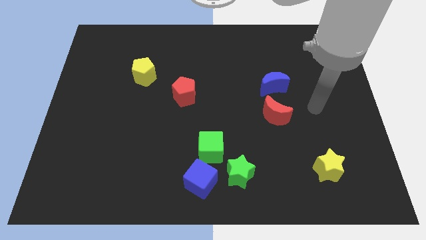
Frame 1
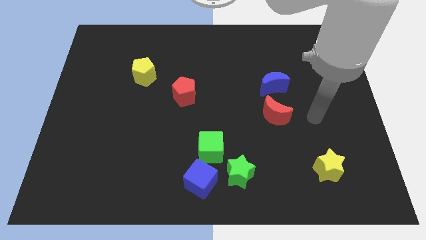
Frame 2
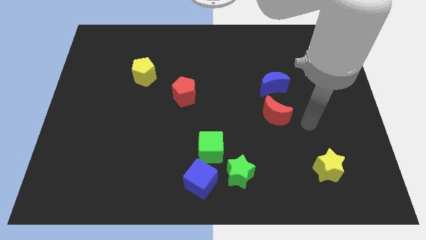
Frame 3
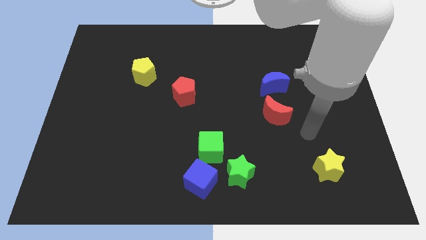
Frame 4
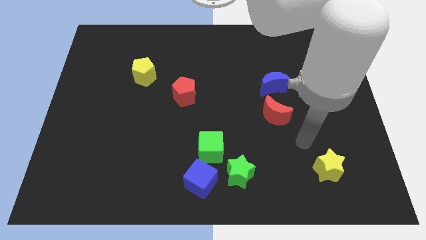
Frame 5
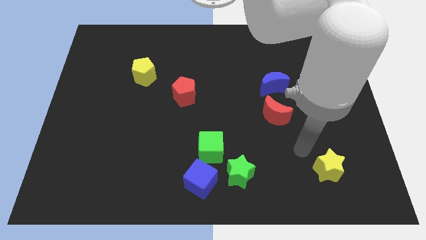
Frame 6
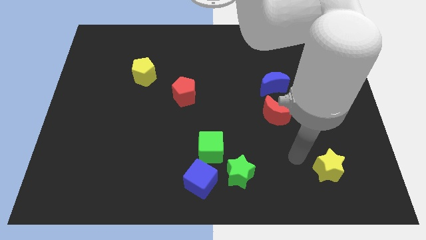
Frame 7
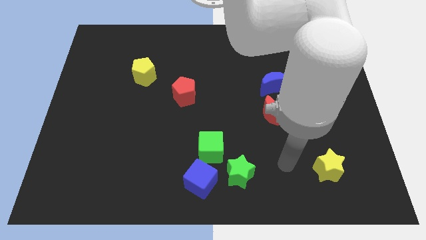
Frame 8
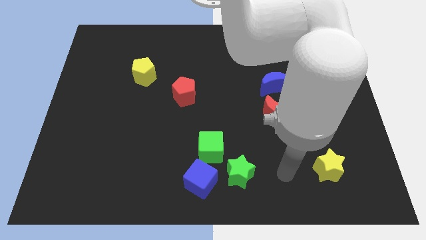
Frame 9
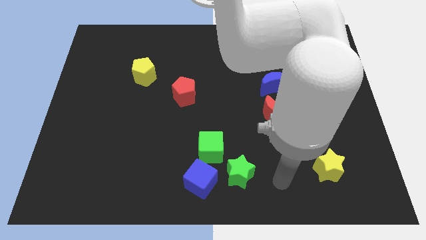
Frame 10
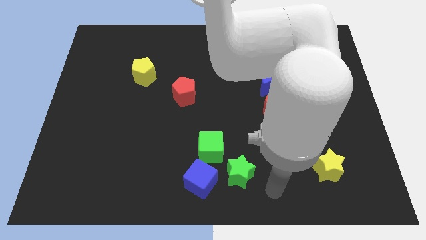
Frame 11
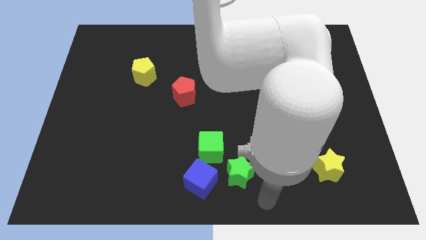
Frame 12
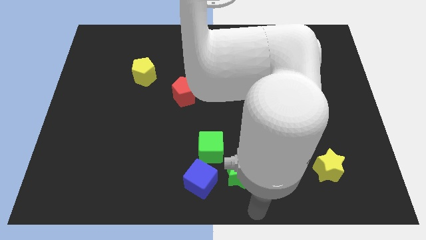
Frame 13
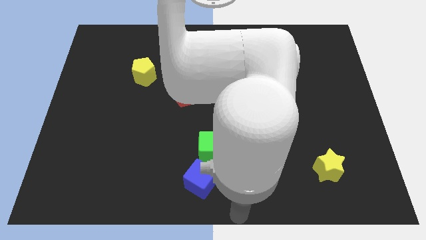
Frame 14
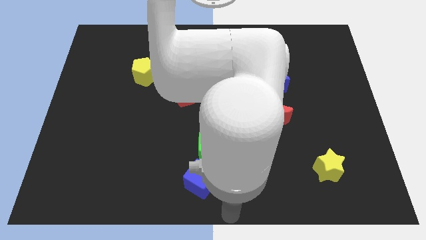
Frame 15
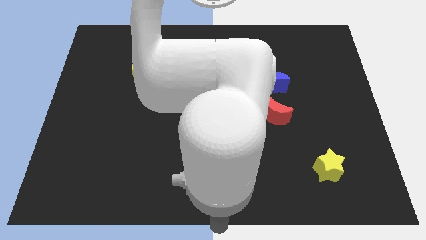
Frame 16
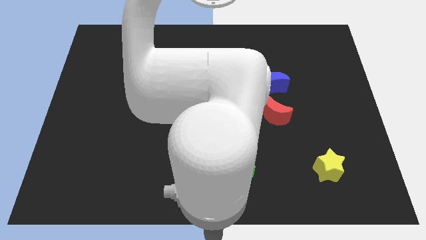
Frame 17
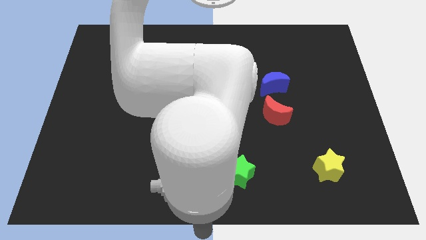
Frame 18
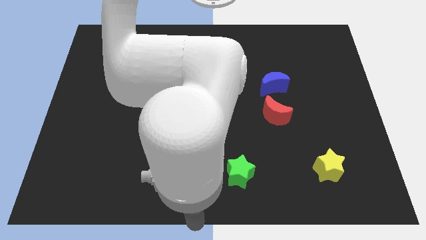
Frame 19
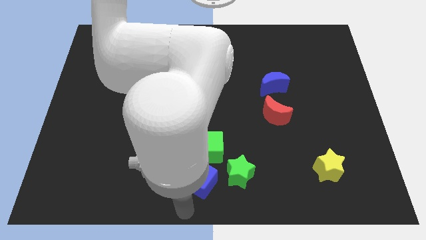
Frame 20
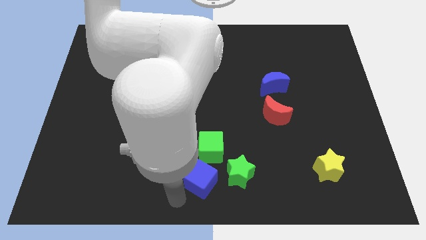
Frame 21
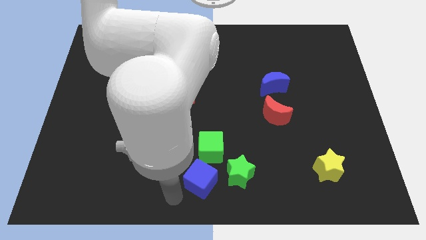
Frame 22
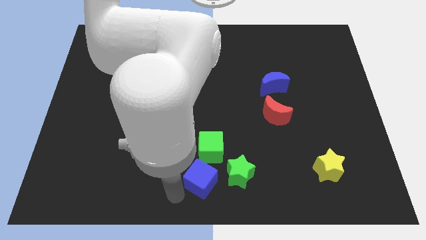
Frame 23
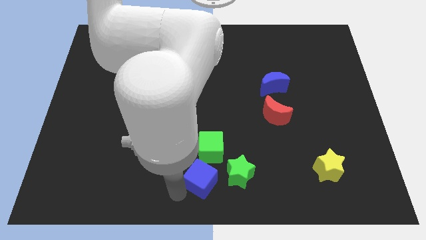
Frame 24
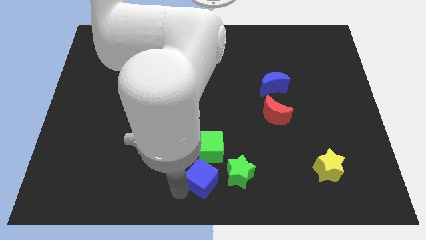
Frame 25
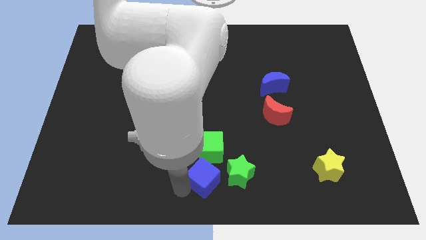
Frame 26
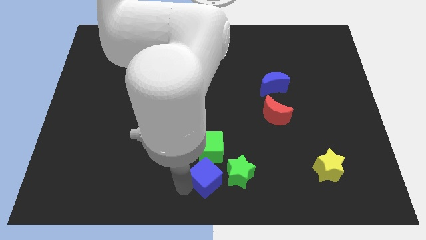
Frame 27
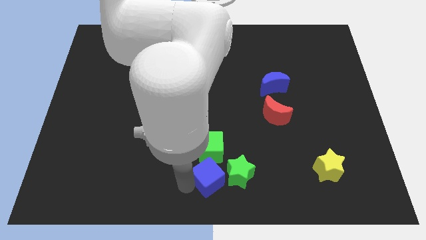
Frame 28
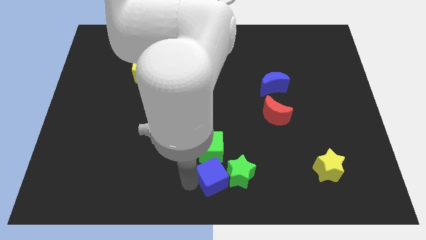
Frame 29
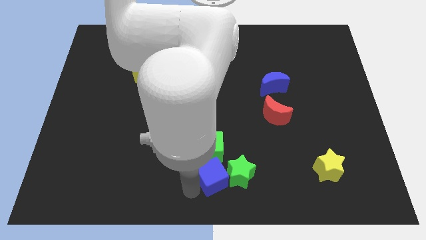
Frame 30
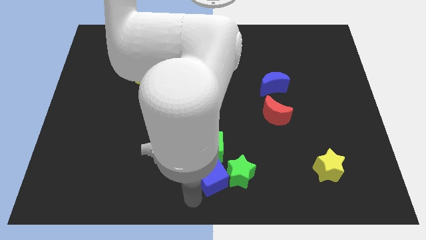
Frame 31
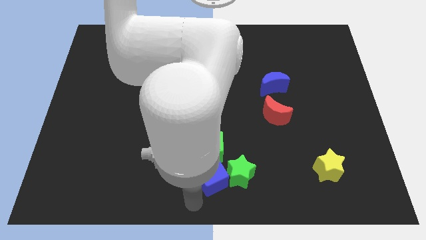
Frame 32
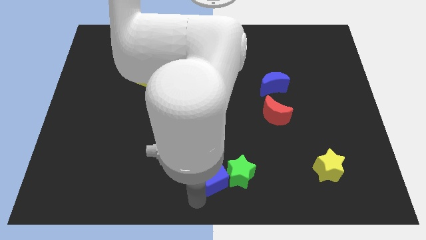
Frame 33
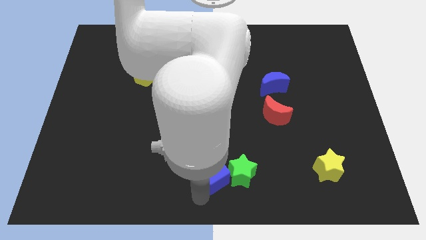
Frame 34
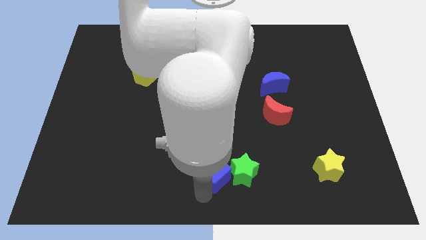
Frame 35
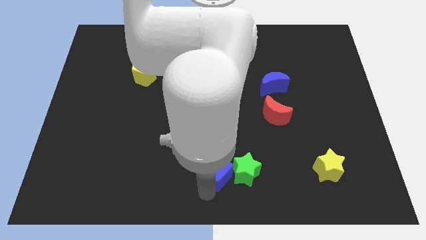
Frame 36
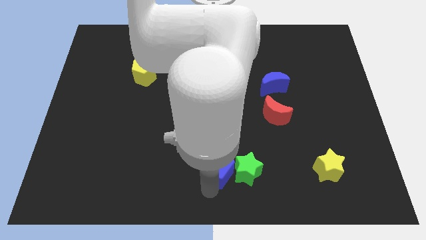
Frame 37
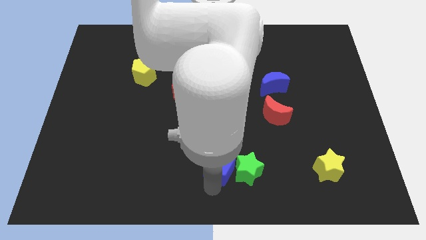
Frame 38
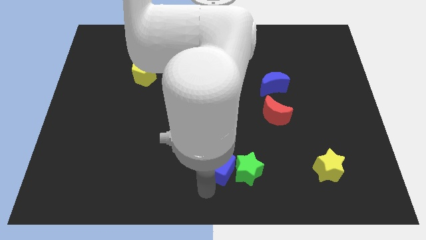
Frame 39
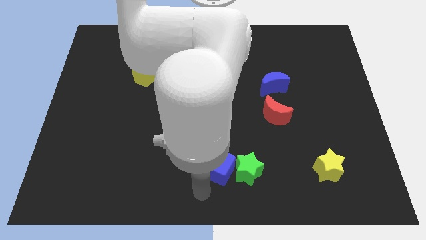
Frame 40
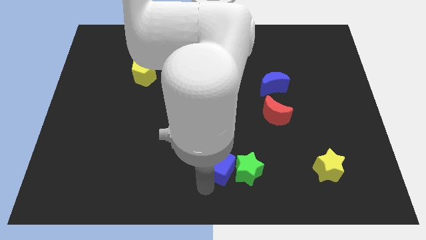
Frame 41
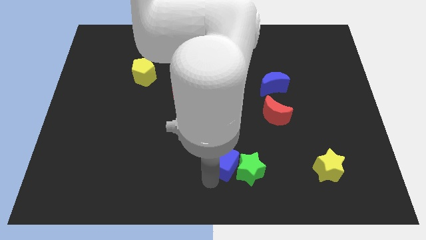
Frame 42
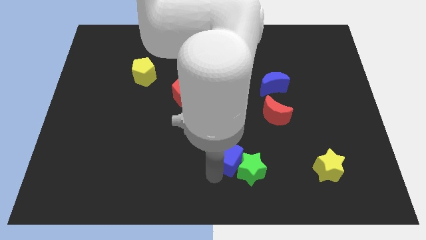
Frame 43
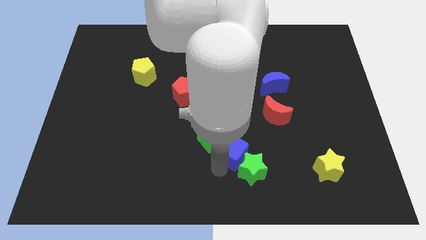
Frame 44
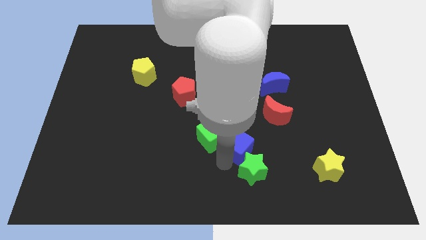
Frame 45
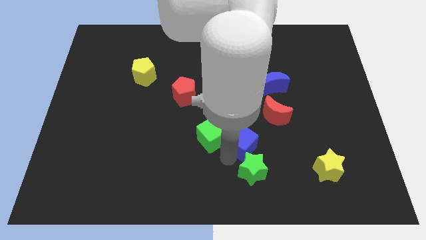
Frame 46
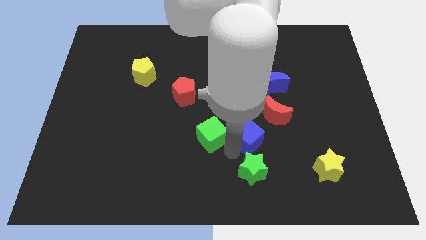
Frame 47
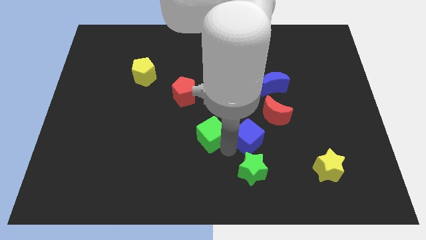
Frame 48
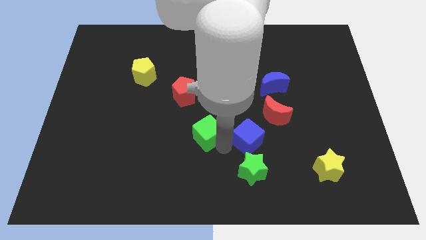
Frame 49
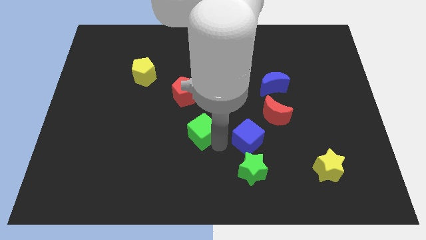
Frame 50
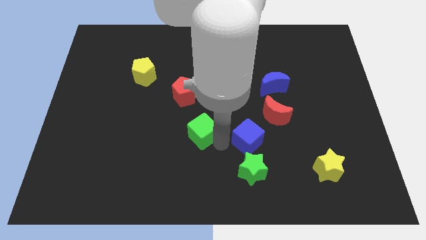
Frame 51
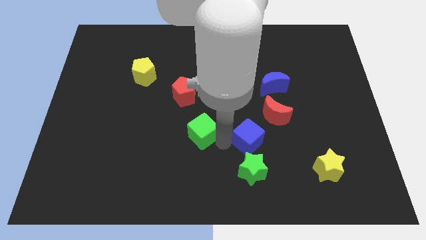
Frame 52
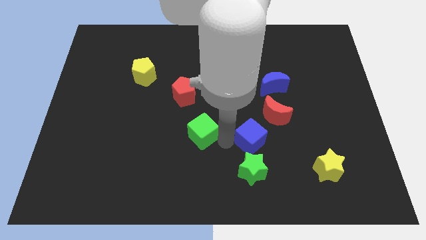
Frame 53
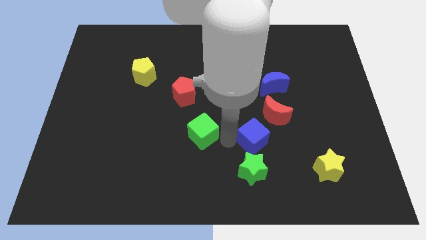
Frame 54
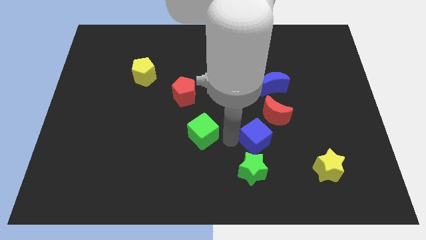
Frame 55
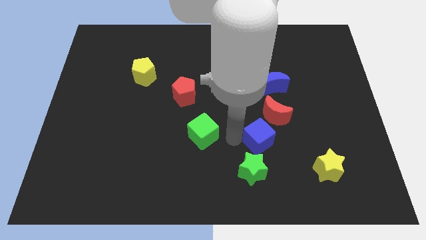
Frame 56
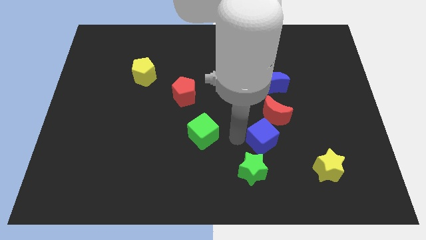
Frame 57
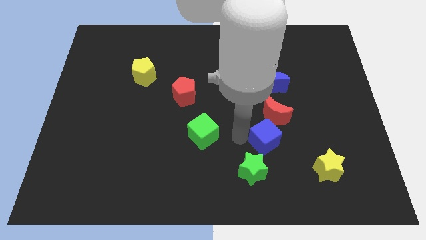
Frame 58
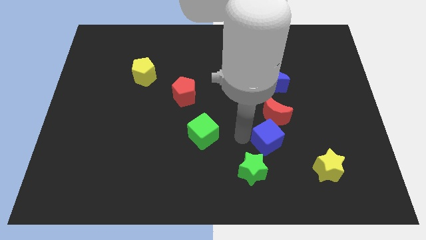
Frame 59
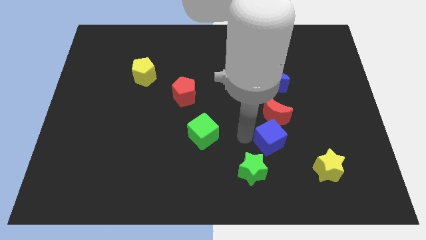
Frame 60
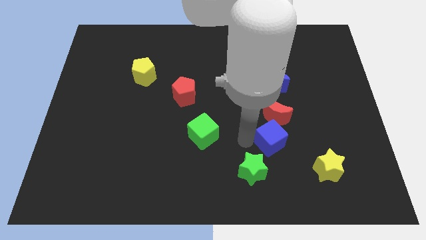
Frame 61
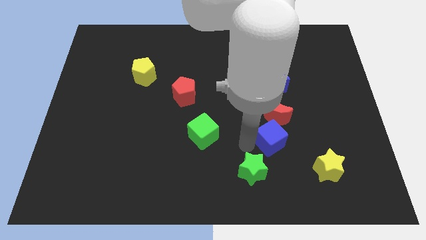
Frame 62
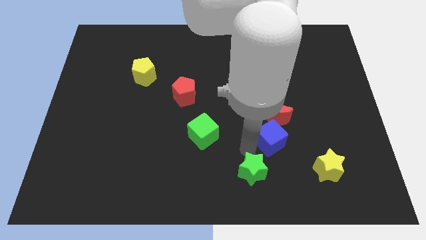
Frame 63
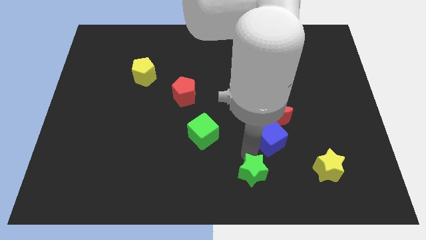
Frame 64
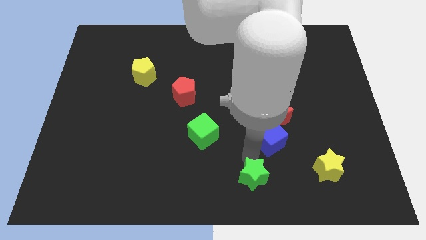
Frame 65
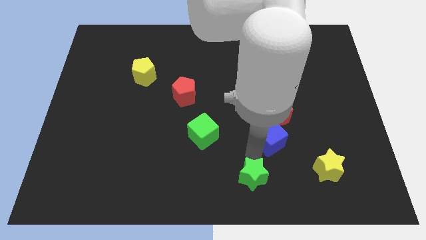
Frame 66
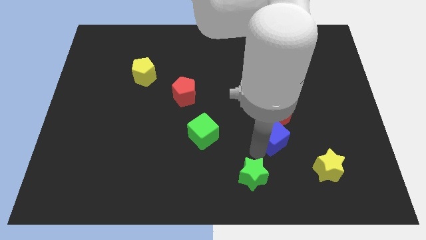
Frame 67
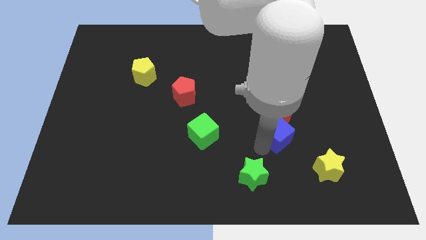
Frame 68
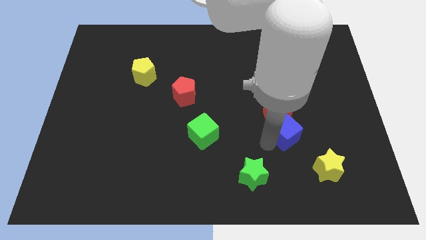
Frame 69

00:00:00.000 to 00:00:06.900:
move the blue cube up and to the right

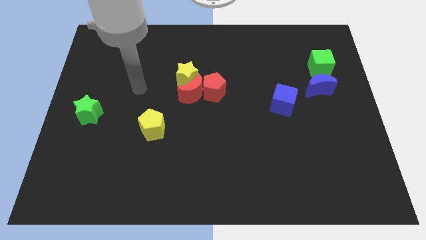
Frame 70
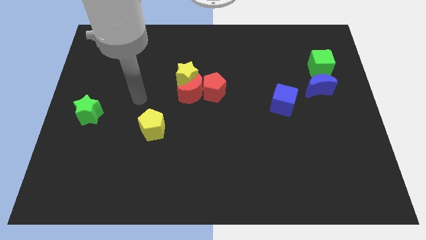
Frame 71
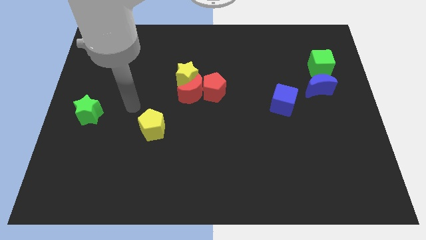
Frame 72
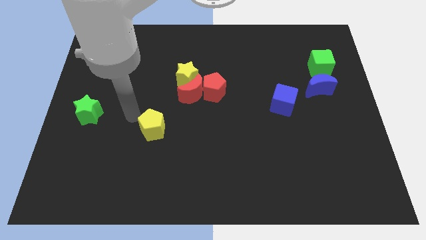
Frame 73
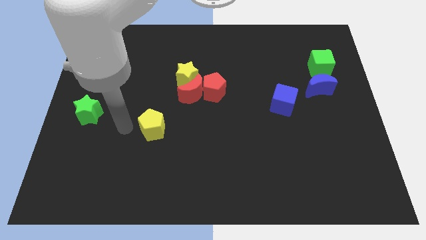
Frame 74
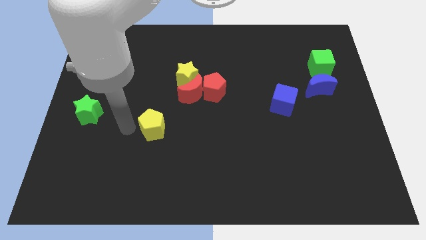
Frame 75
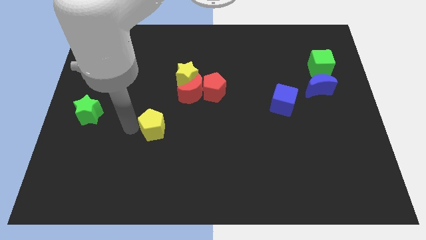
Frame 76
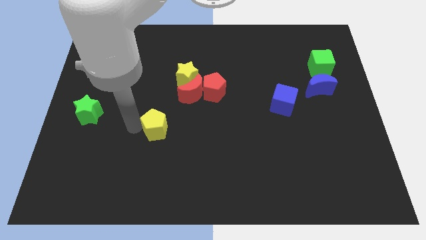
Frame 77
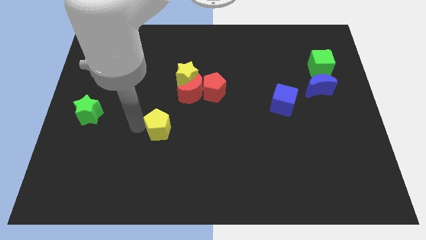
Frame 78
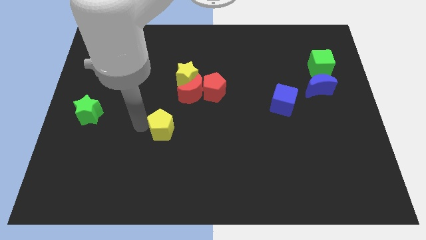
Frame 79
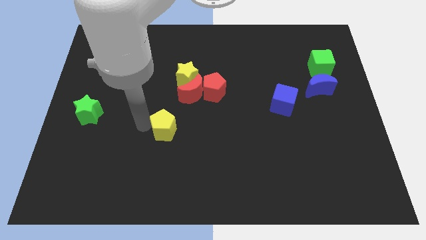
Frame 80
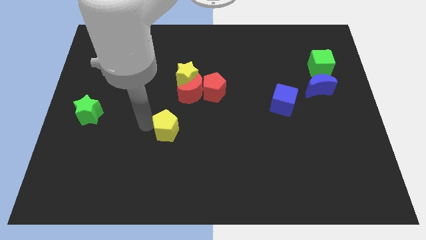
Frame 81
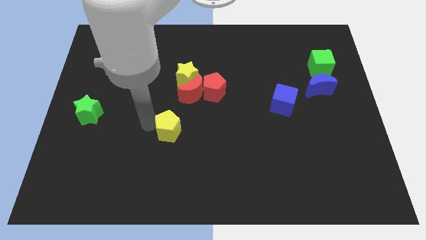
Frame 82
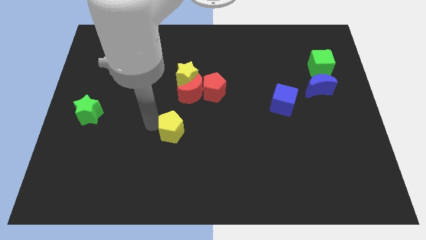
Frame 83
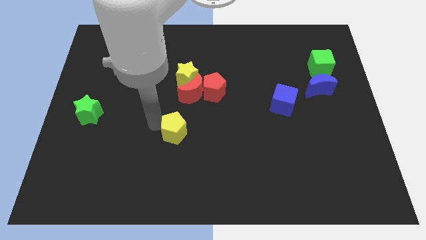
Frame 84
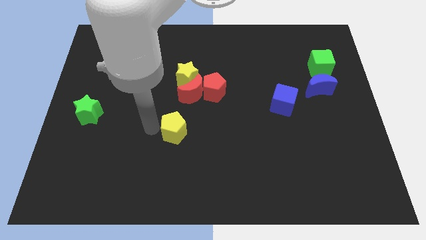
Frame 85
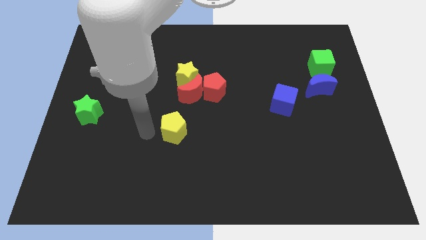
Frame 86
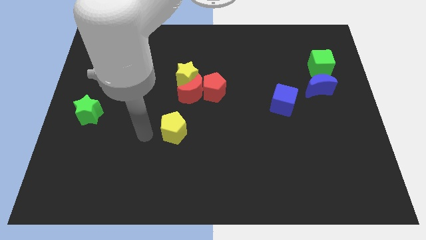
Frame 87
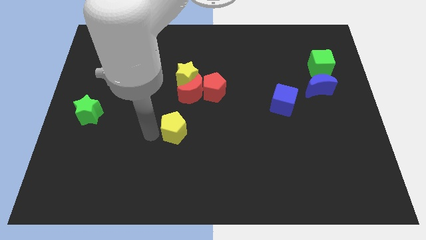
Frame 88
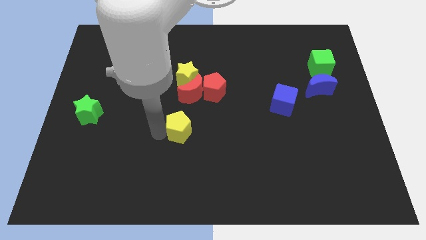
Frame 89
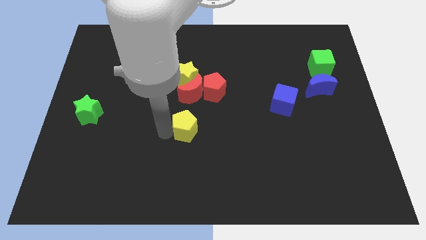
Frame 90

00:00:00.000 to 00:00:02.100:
move the yellow pentagon right a bit
